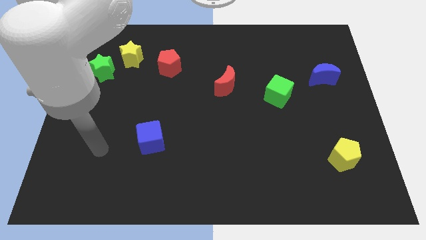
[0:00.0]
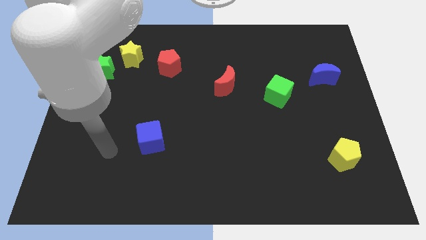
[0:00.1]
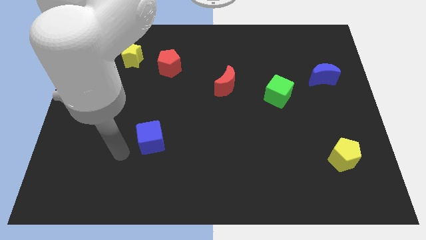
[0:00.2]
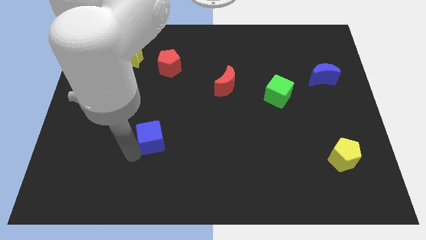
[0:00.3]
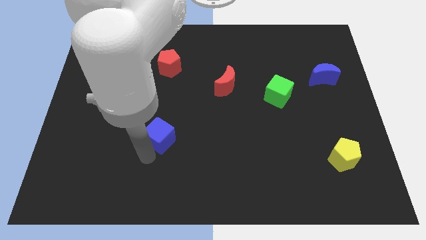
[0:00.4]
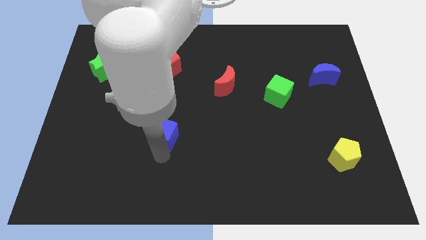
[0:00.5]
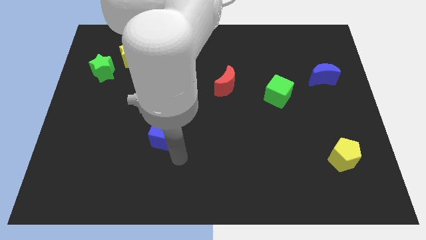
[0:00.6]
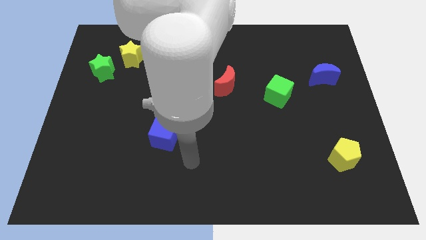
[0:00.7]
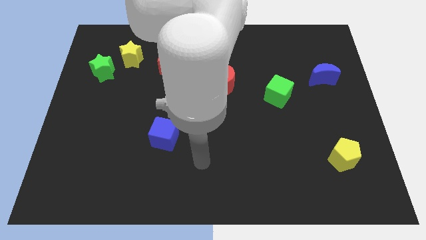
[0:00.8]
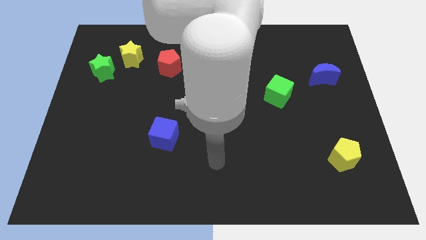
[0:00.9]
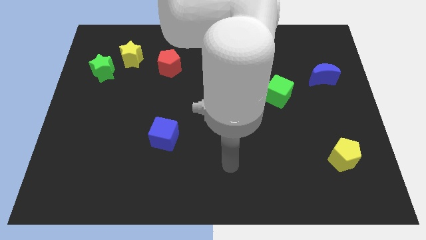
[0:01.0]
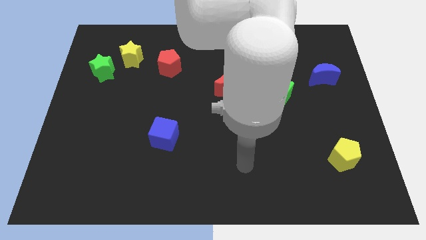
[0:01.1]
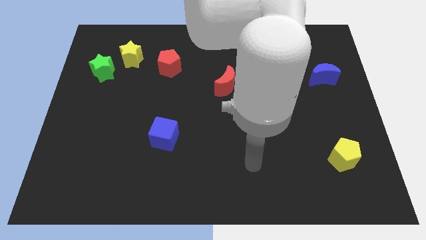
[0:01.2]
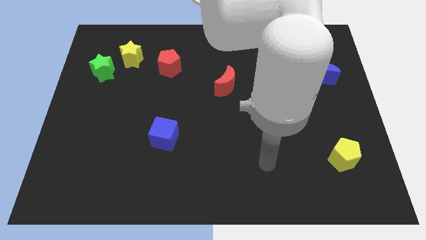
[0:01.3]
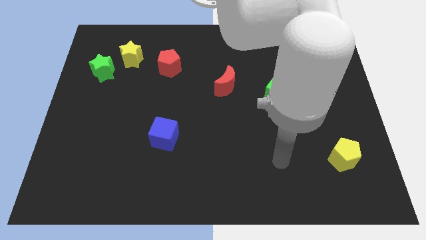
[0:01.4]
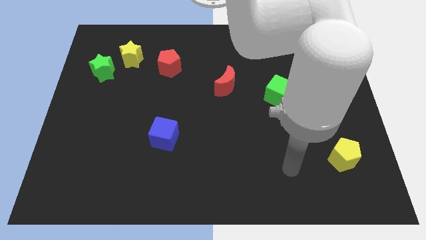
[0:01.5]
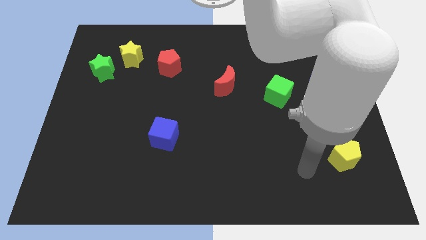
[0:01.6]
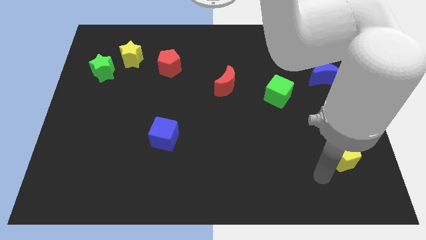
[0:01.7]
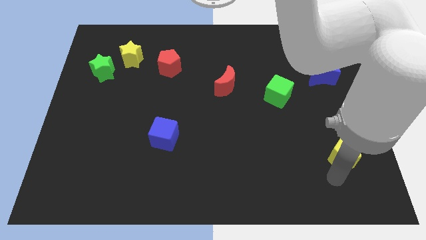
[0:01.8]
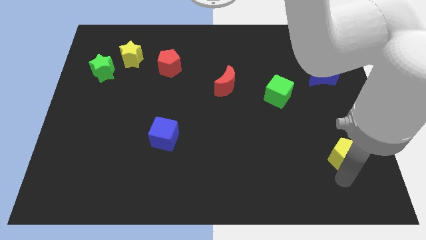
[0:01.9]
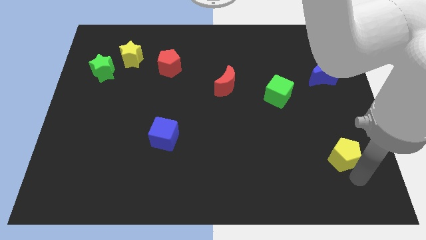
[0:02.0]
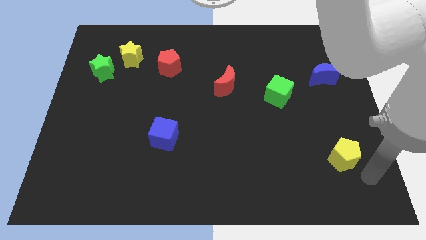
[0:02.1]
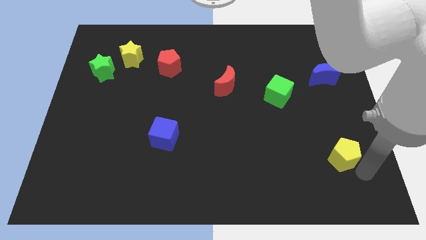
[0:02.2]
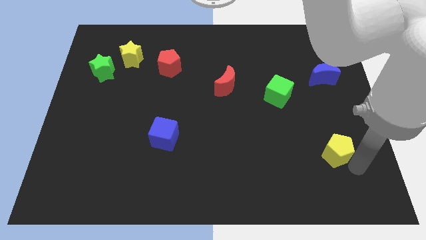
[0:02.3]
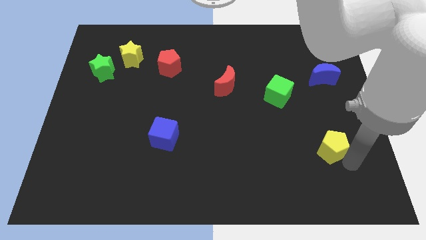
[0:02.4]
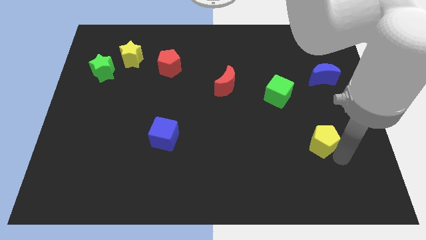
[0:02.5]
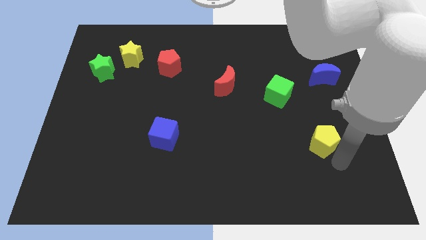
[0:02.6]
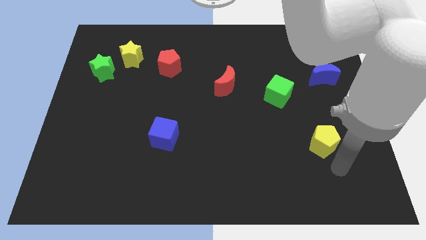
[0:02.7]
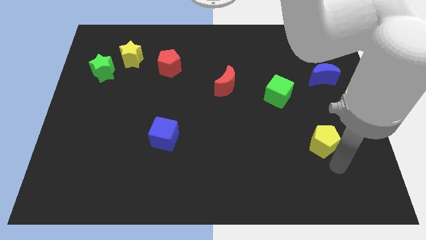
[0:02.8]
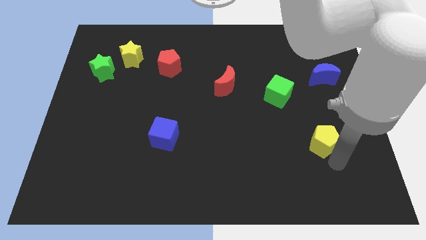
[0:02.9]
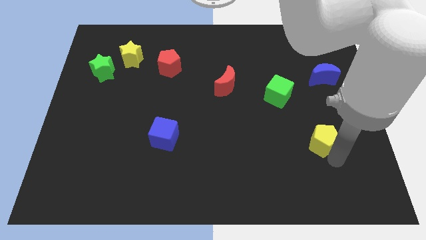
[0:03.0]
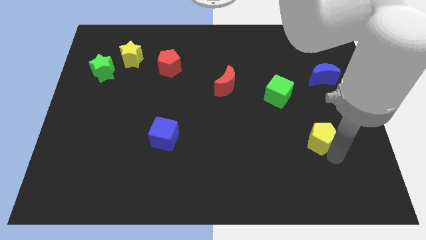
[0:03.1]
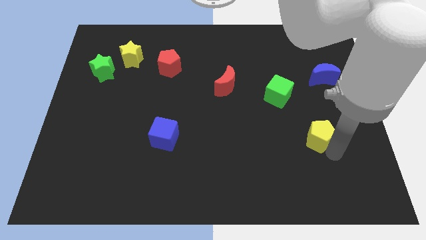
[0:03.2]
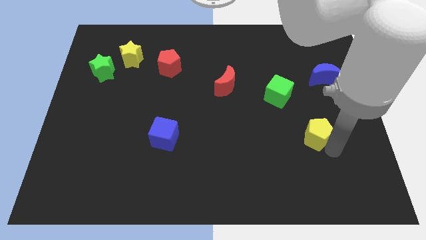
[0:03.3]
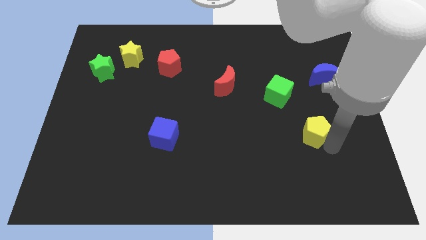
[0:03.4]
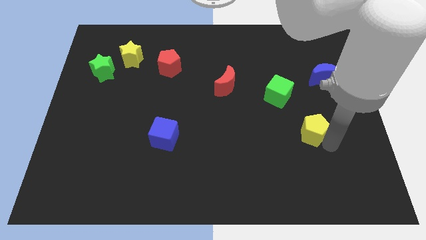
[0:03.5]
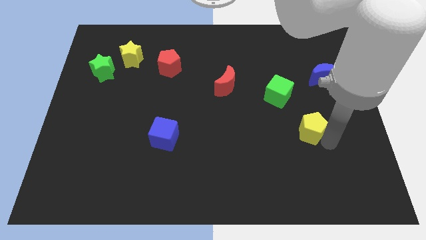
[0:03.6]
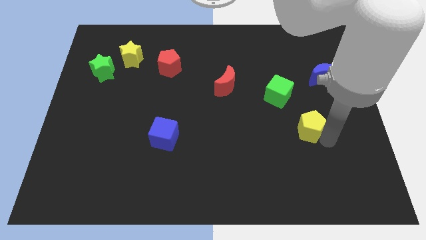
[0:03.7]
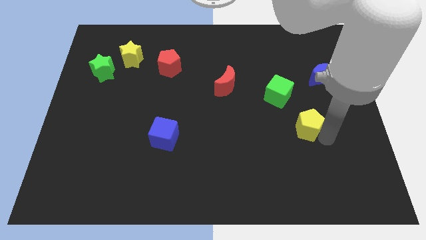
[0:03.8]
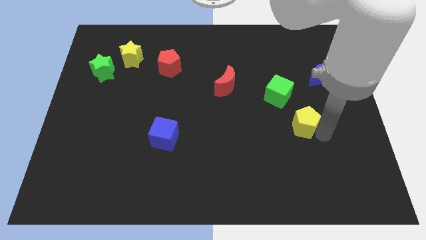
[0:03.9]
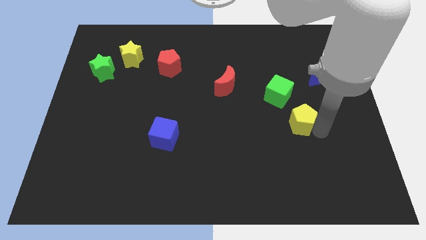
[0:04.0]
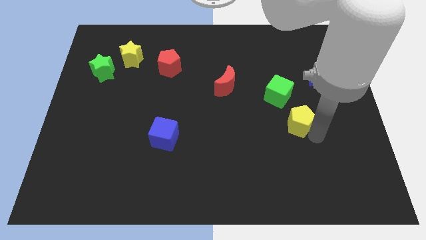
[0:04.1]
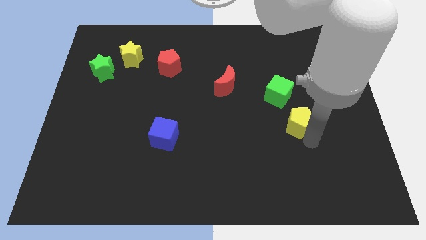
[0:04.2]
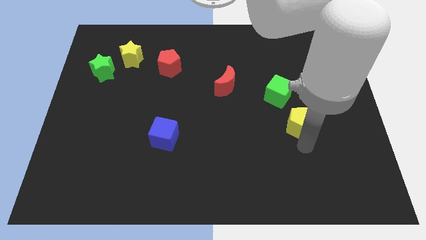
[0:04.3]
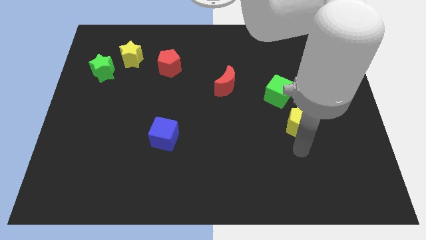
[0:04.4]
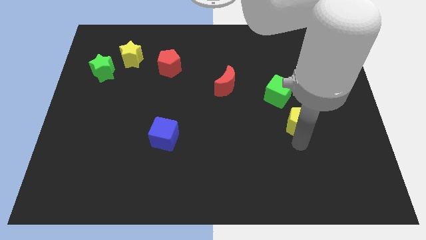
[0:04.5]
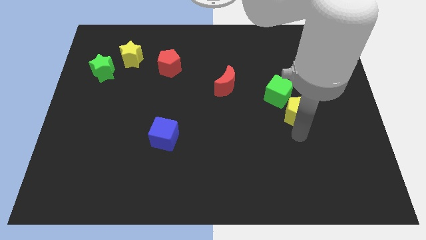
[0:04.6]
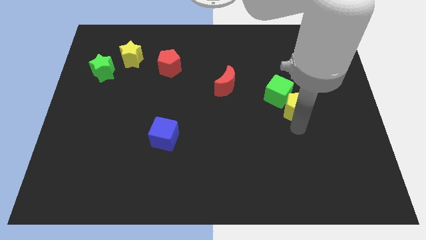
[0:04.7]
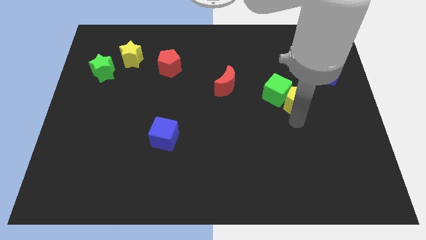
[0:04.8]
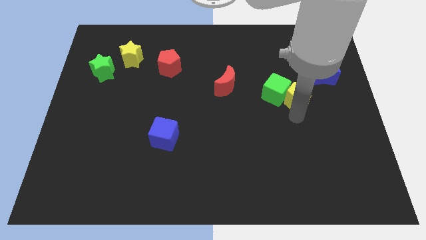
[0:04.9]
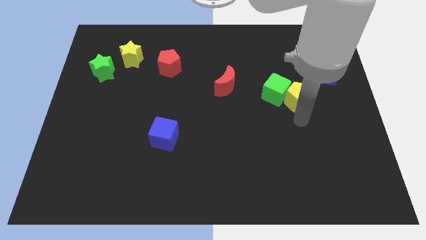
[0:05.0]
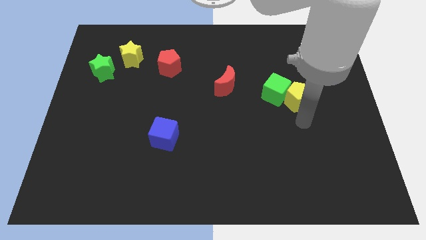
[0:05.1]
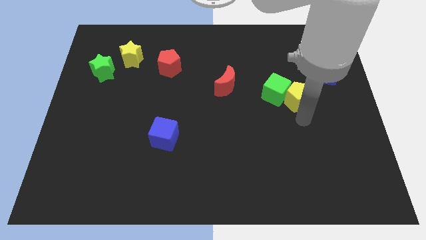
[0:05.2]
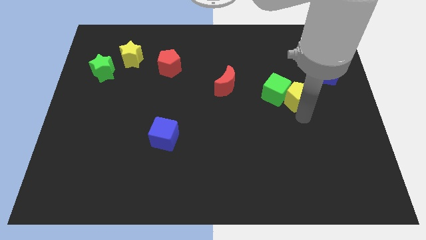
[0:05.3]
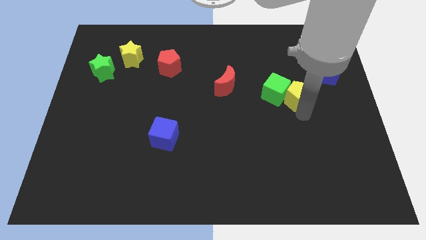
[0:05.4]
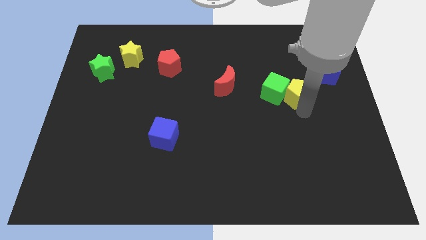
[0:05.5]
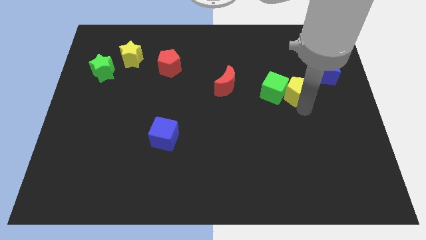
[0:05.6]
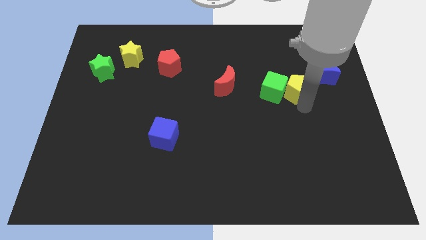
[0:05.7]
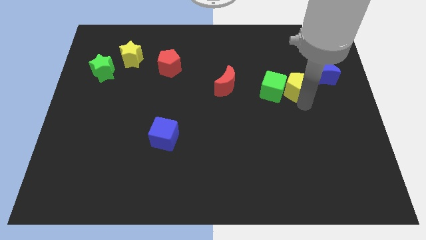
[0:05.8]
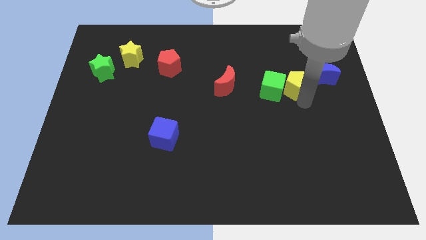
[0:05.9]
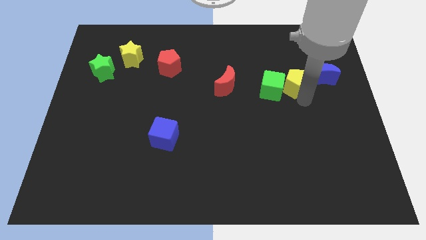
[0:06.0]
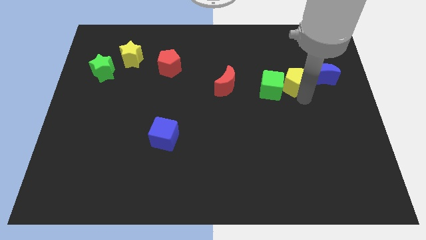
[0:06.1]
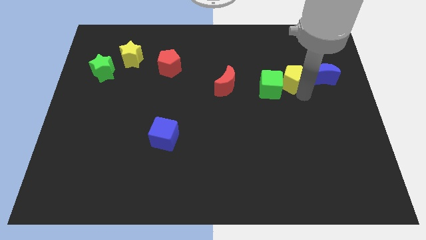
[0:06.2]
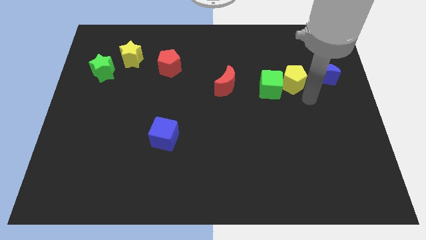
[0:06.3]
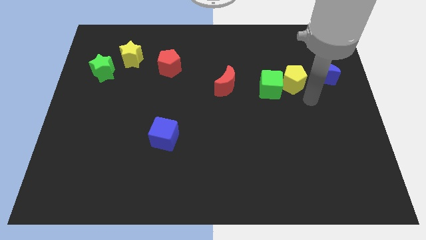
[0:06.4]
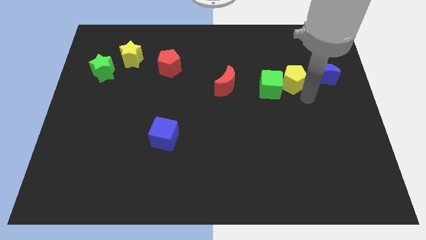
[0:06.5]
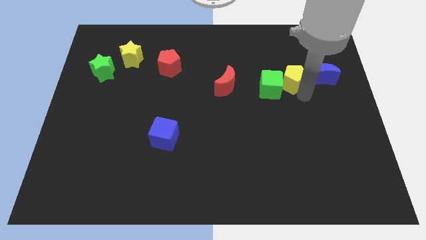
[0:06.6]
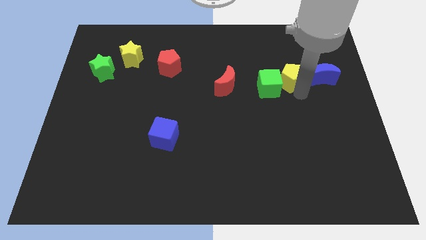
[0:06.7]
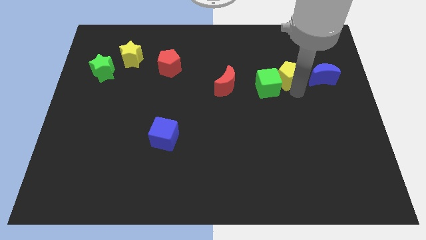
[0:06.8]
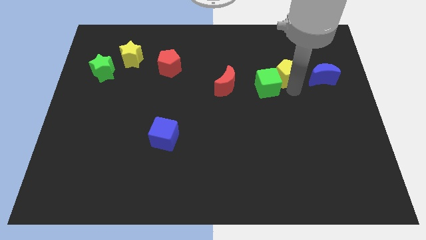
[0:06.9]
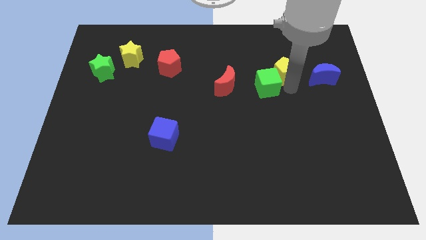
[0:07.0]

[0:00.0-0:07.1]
push the yellow pentagon to the top side of the green cube
